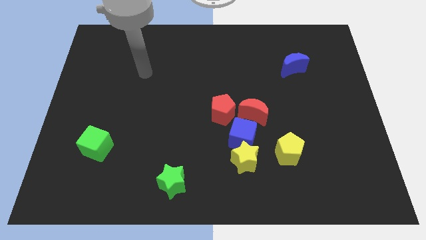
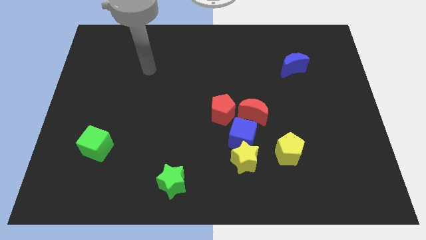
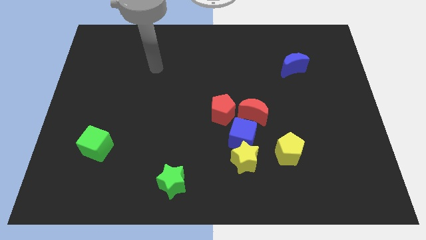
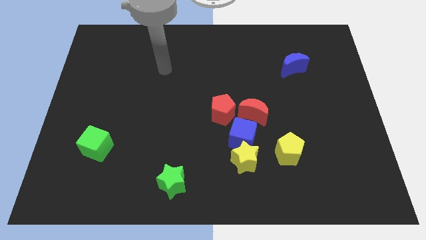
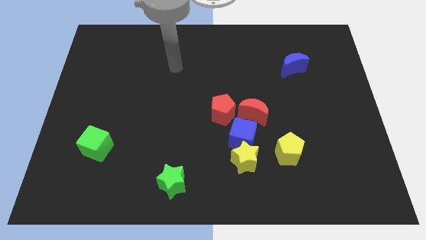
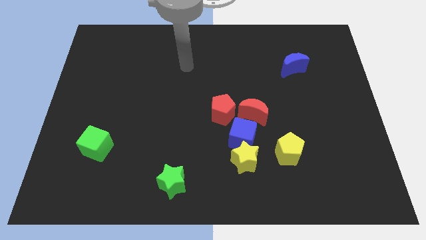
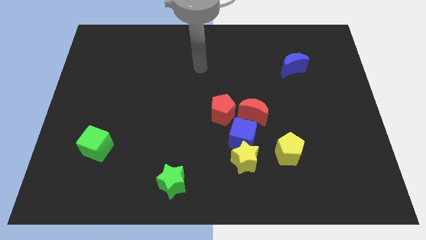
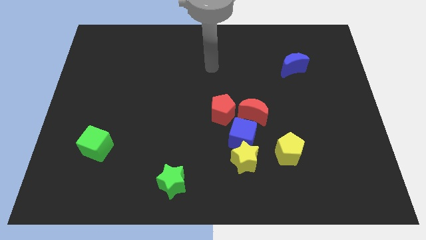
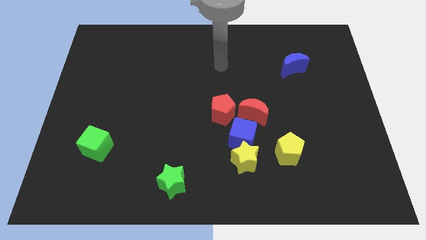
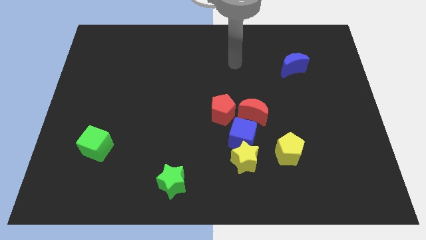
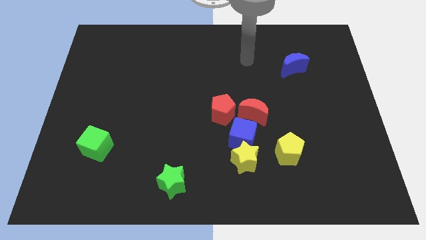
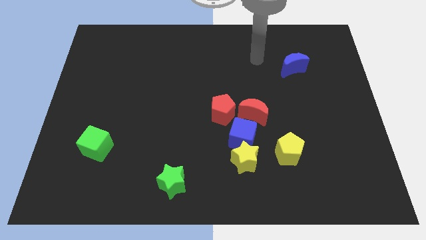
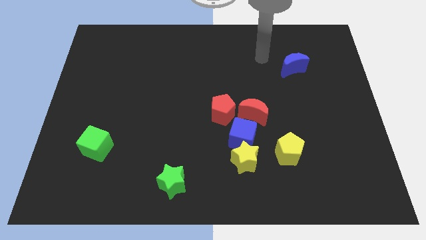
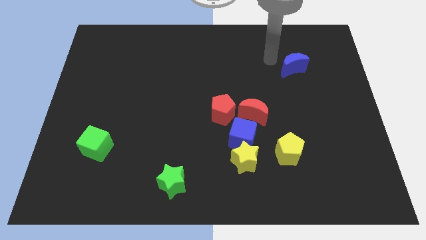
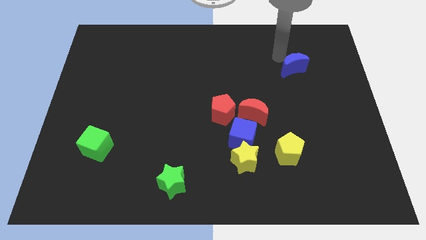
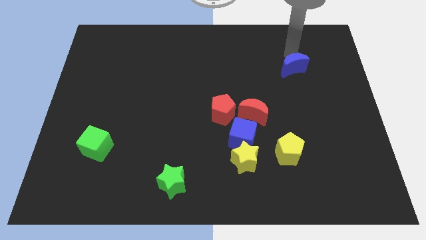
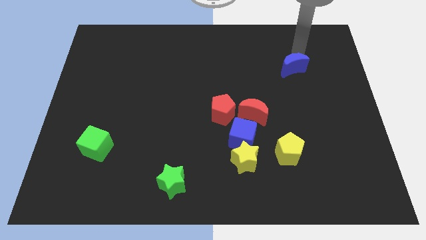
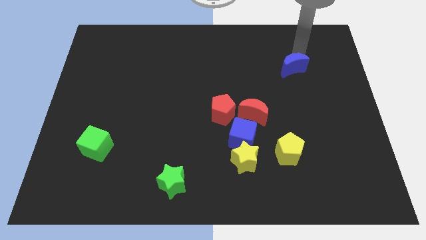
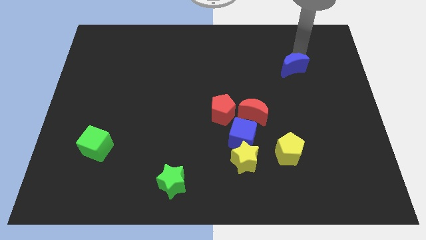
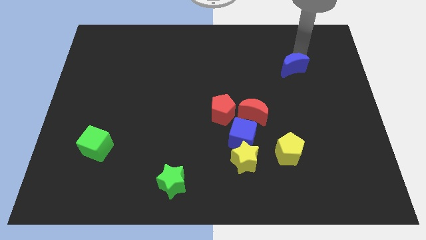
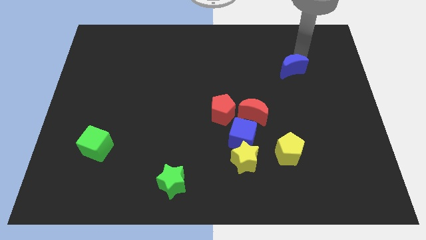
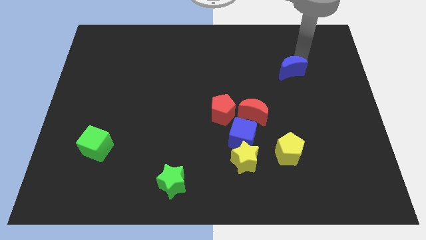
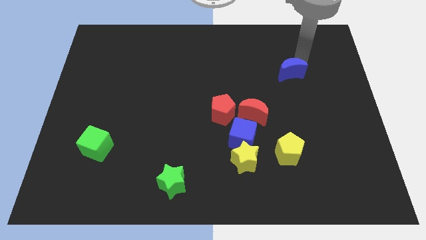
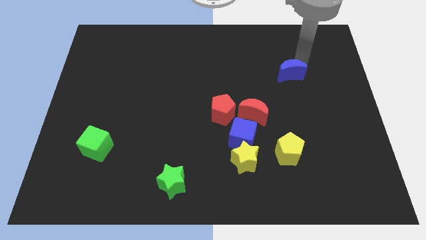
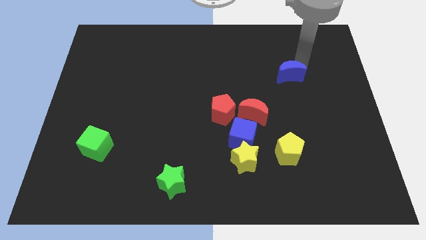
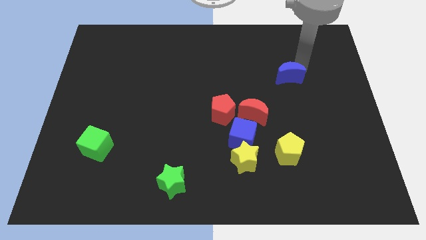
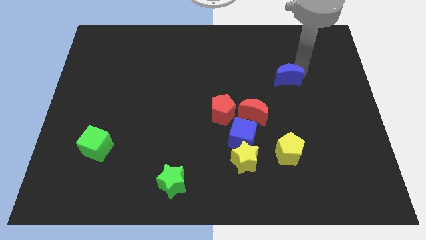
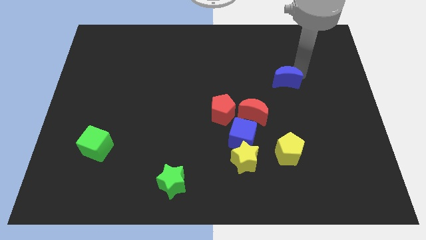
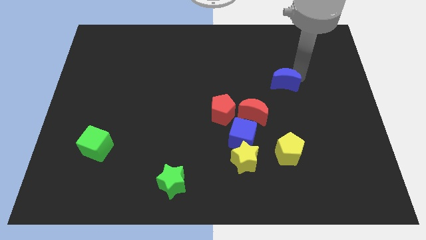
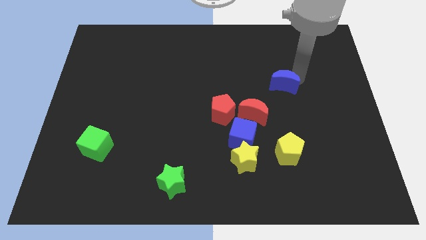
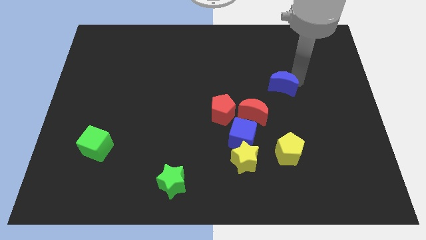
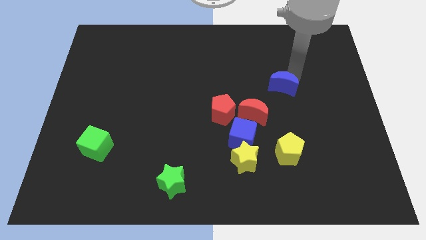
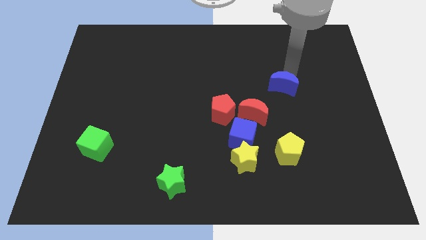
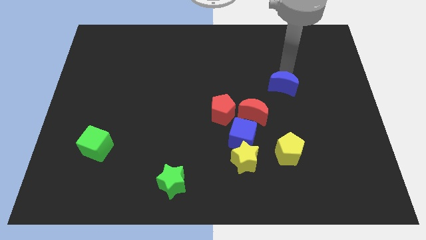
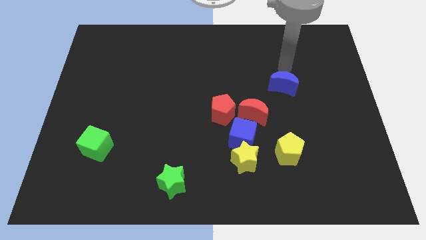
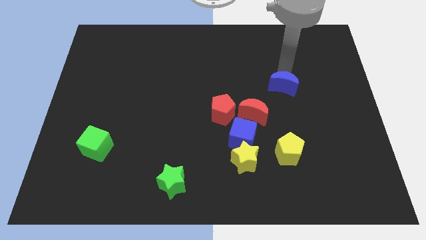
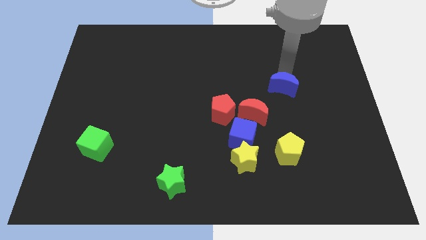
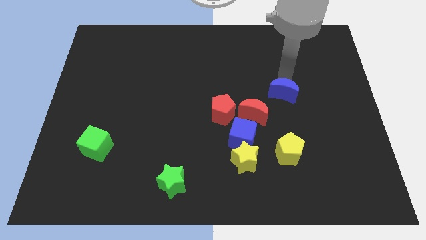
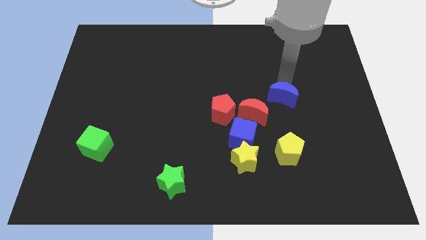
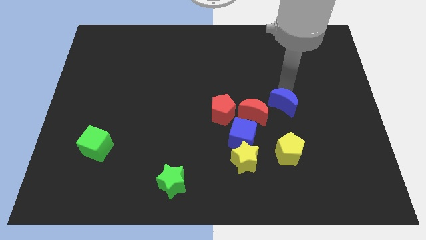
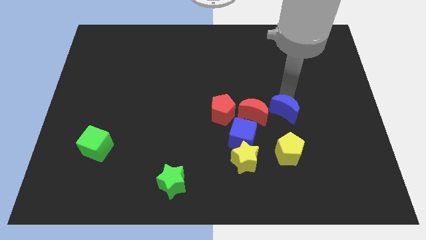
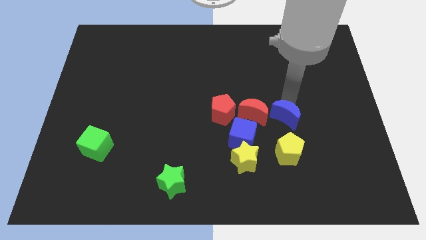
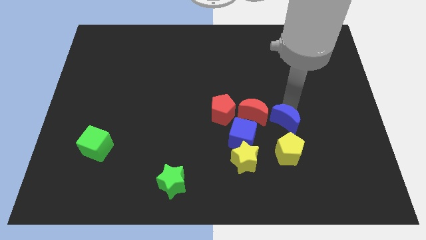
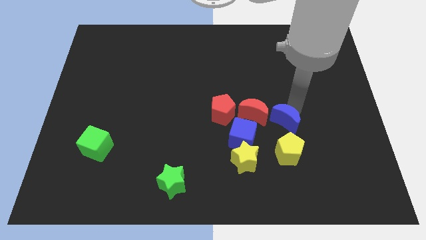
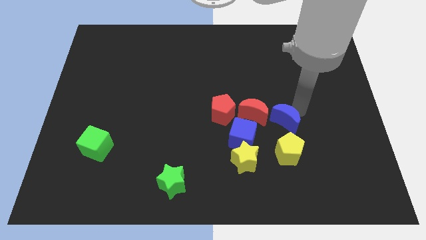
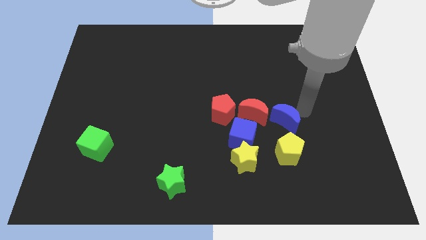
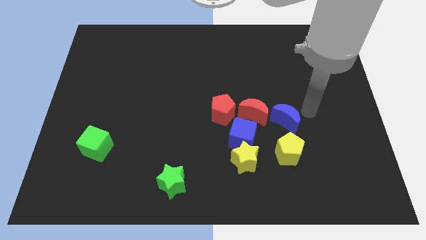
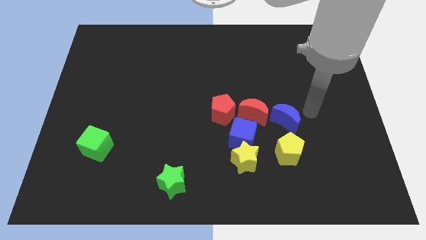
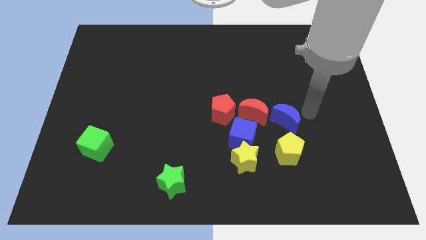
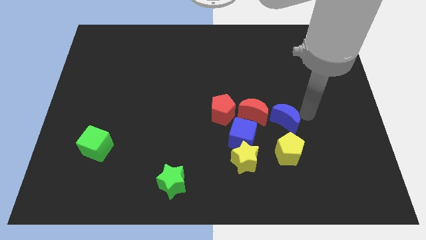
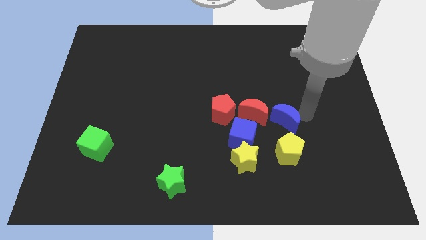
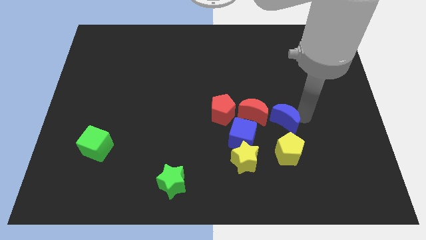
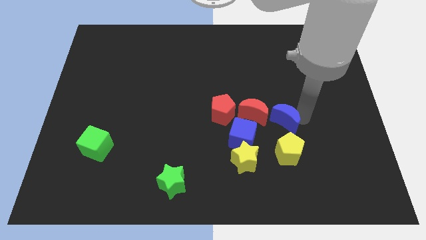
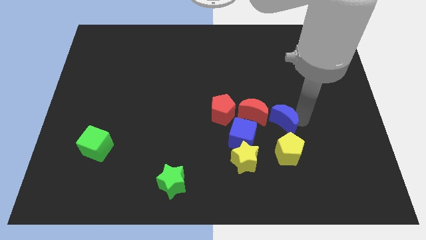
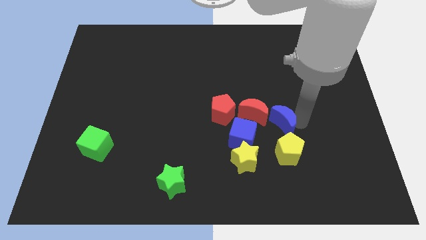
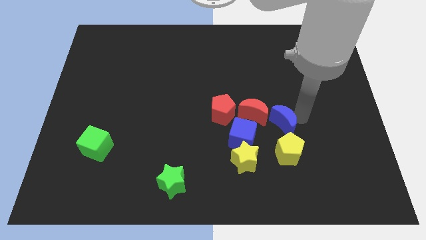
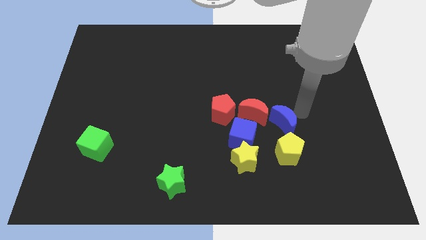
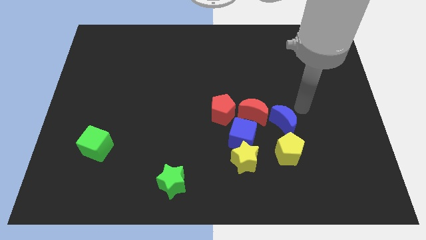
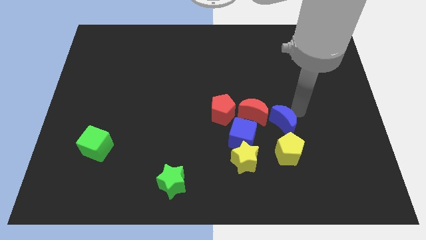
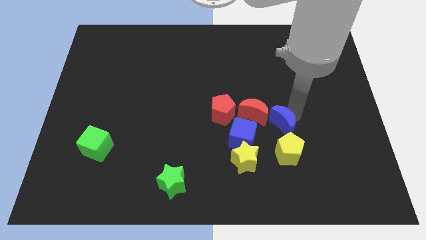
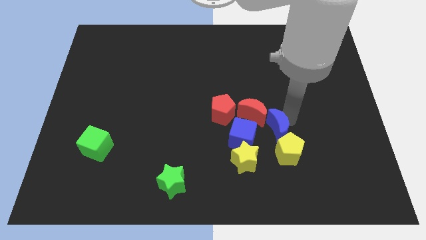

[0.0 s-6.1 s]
push the blue moon diagonally up and to the right of the yellow star
